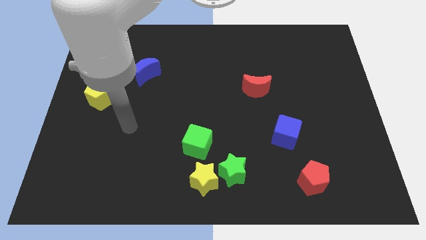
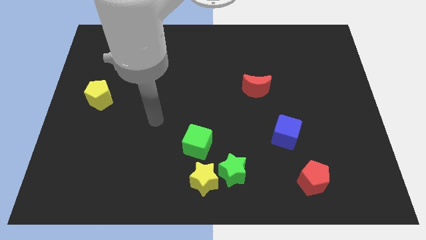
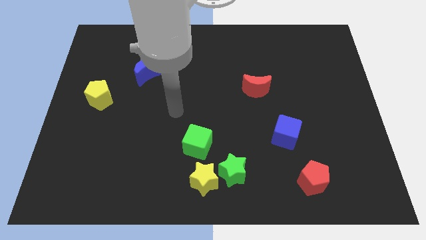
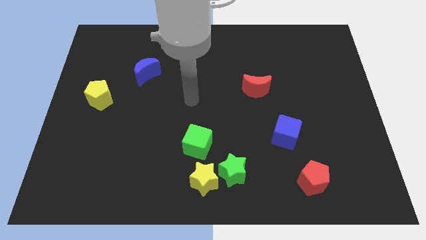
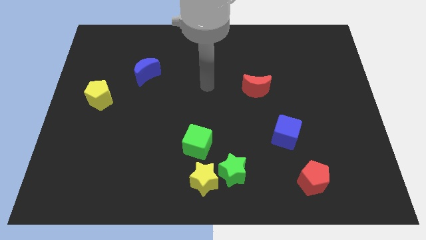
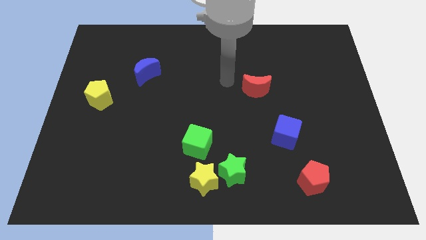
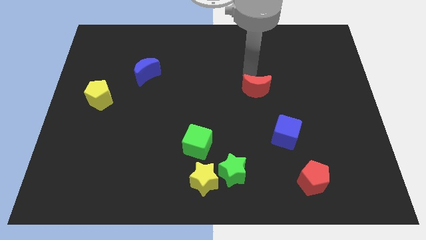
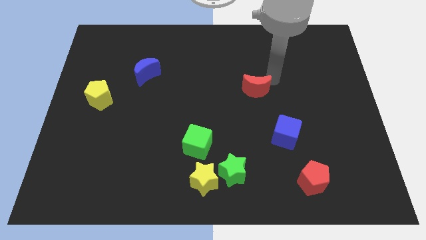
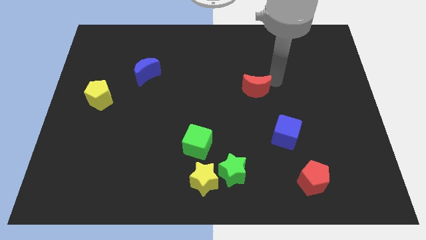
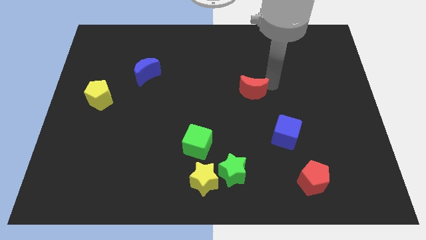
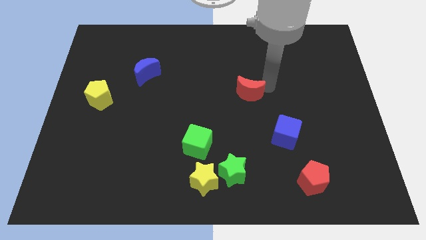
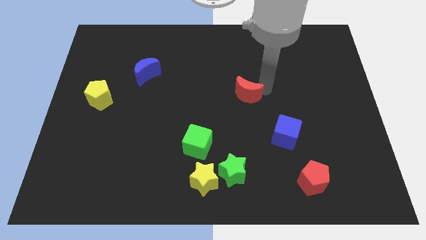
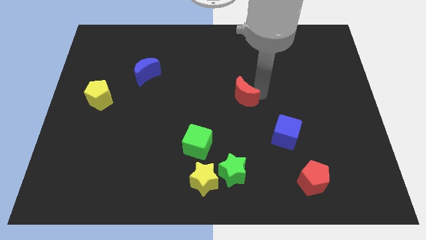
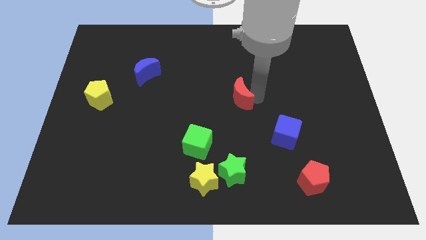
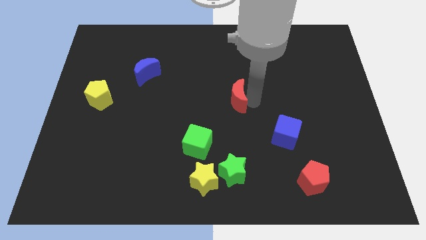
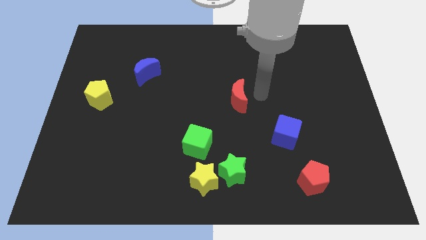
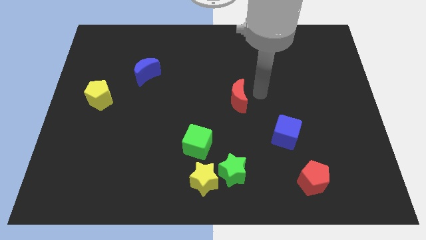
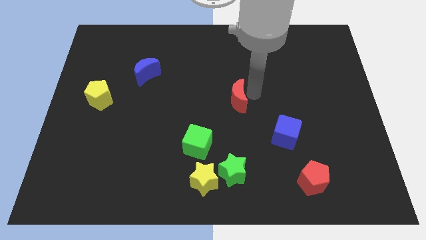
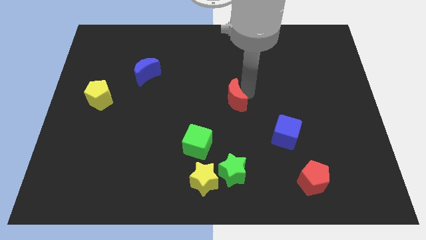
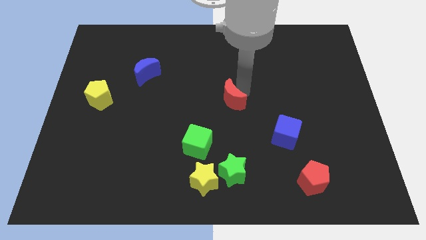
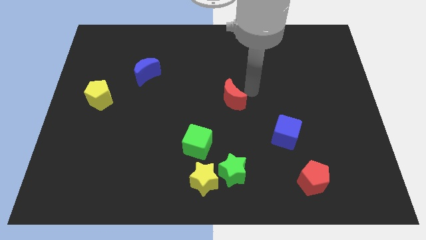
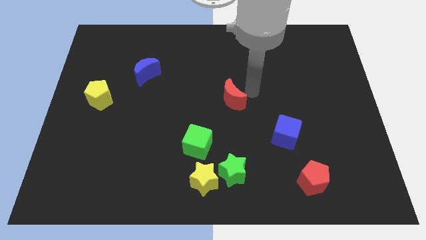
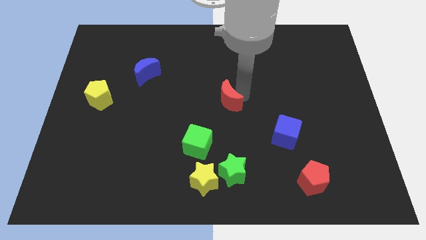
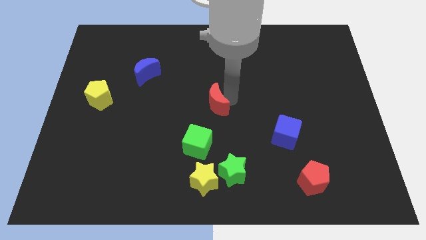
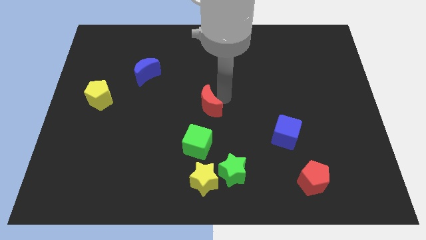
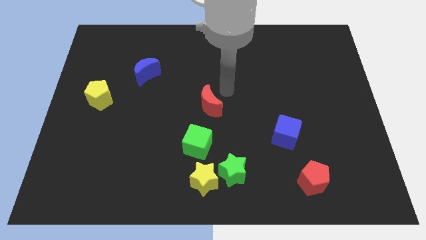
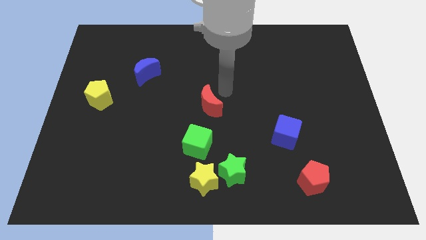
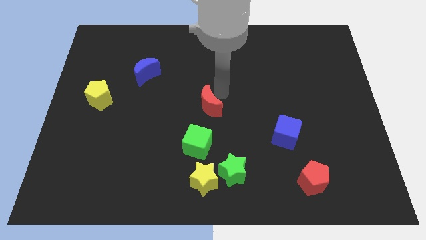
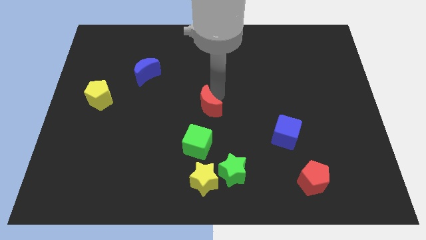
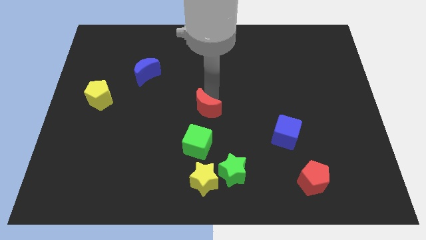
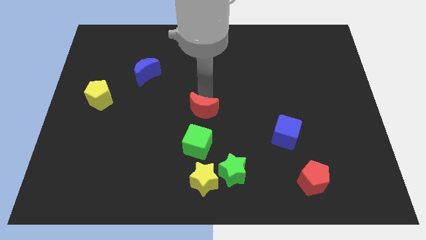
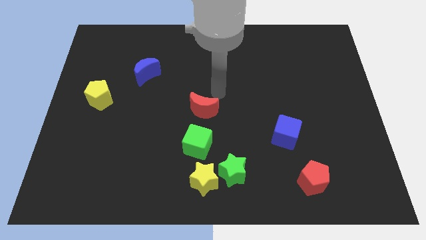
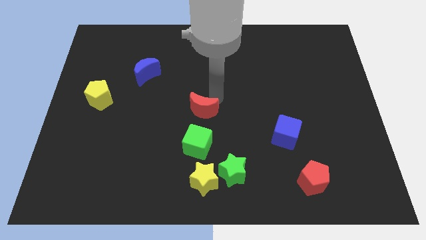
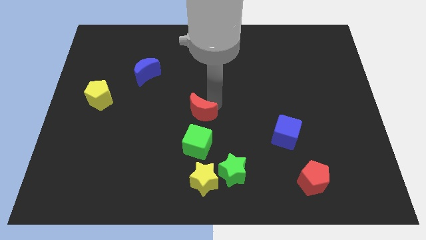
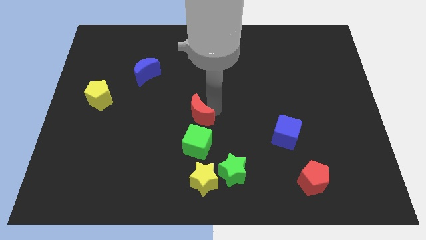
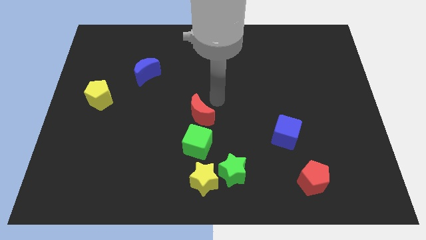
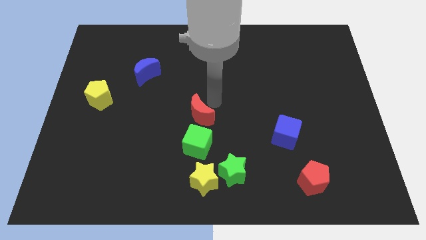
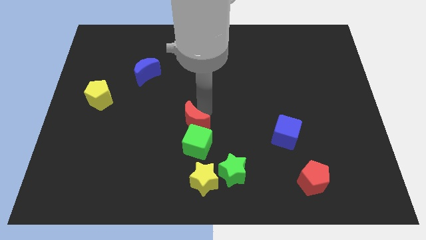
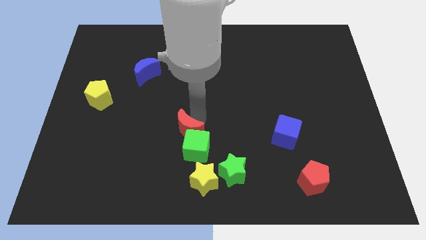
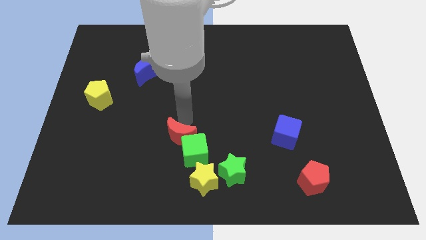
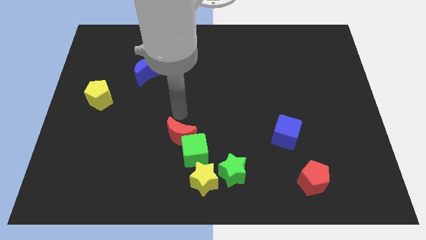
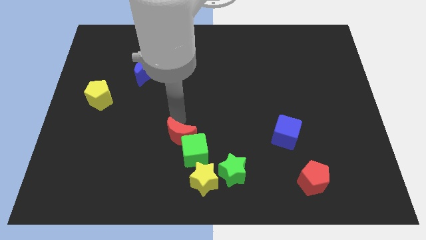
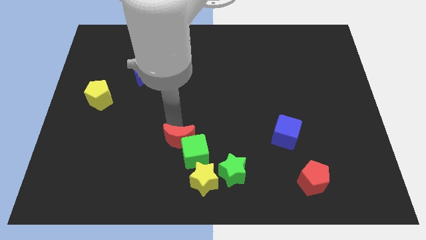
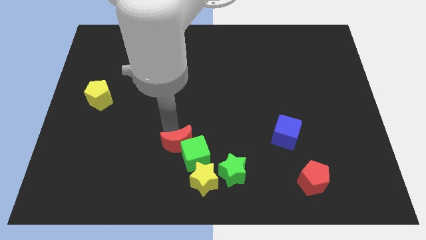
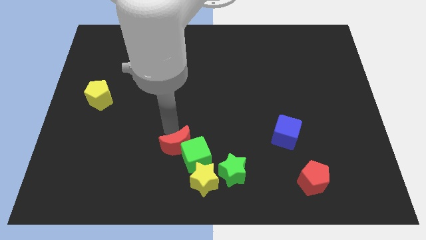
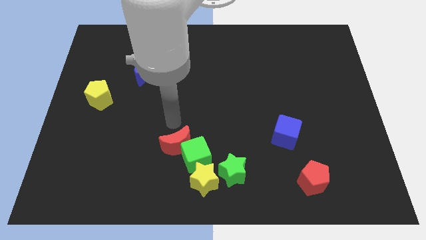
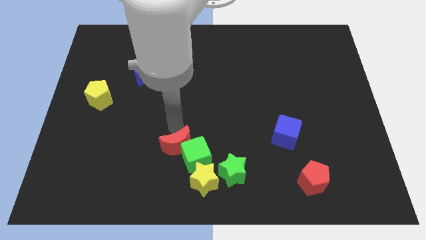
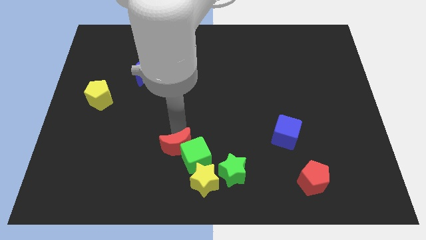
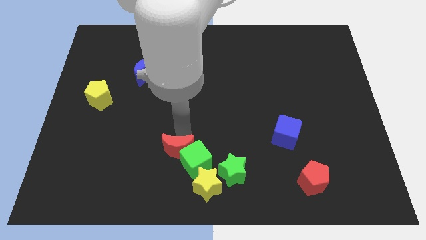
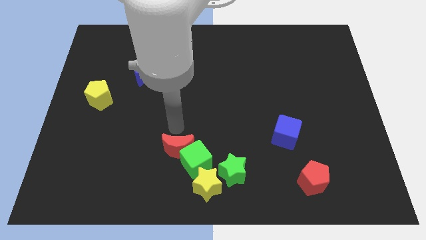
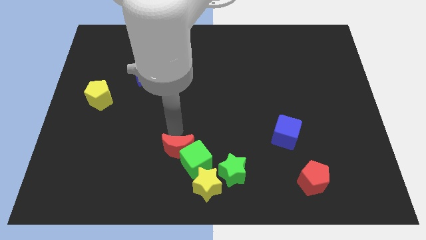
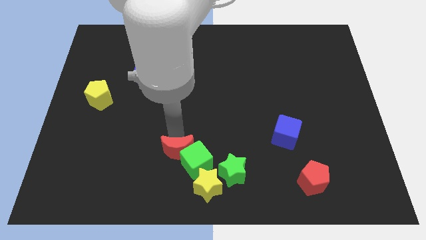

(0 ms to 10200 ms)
move the red moon left of the green star
